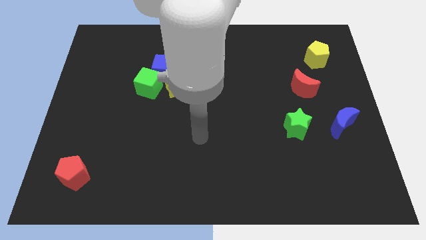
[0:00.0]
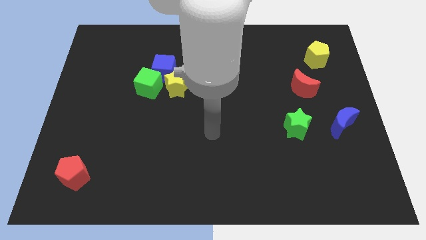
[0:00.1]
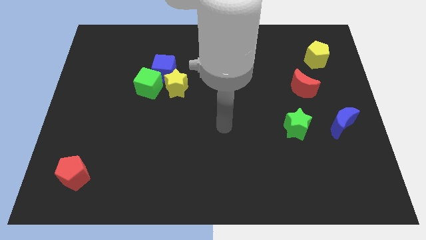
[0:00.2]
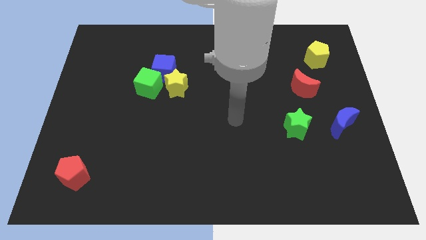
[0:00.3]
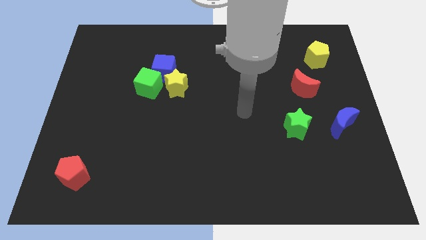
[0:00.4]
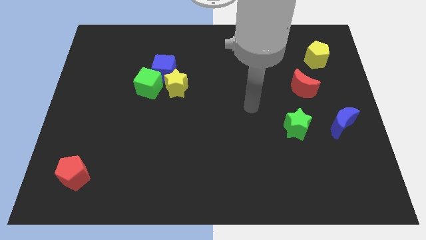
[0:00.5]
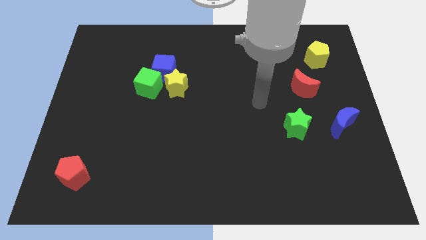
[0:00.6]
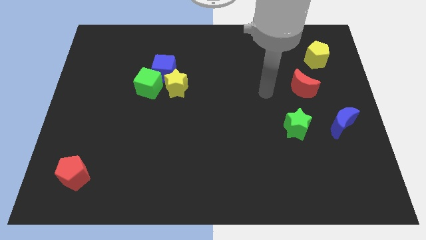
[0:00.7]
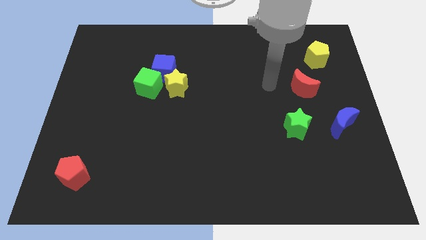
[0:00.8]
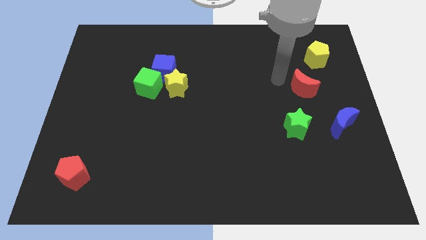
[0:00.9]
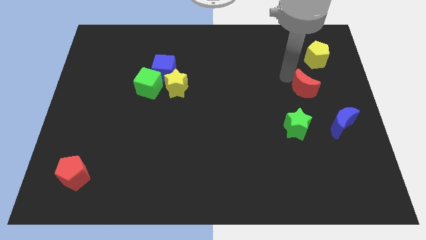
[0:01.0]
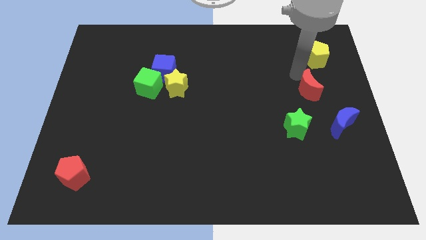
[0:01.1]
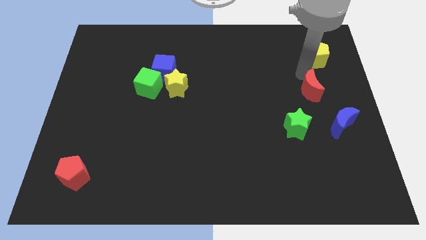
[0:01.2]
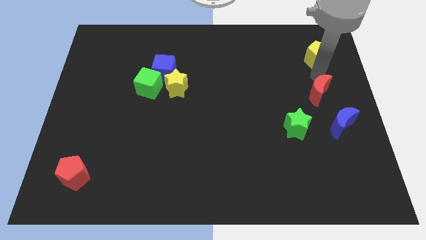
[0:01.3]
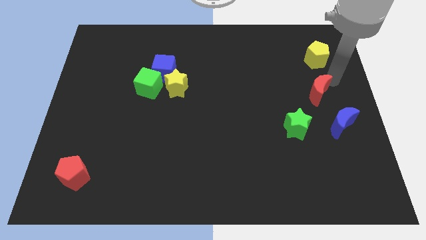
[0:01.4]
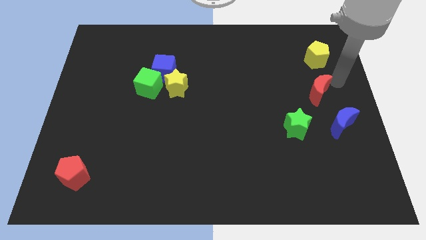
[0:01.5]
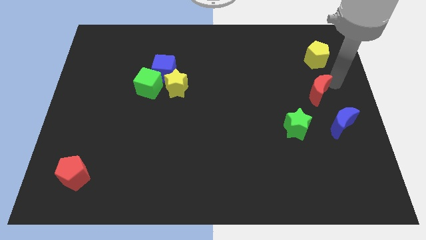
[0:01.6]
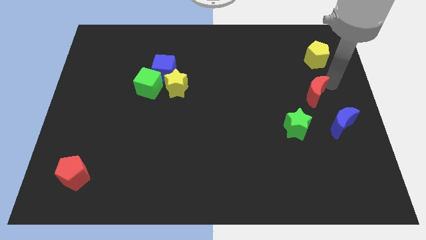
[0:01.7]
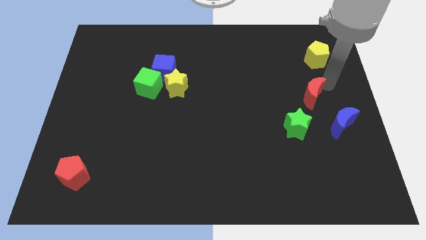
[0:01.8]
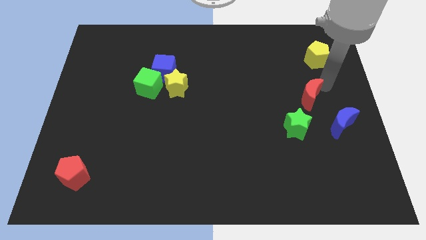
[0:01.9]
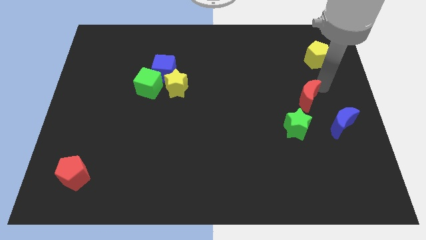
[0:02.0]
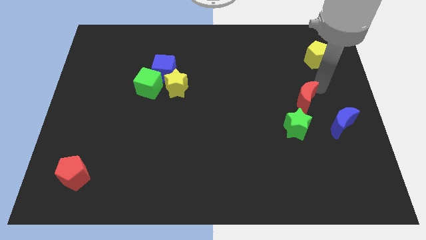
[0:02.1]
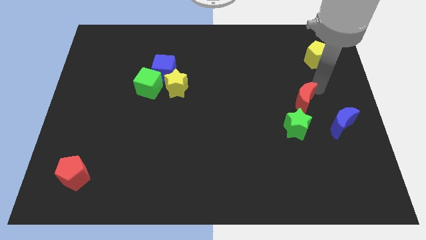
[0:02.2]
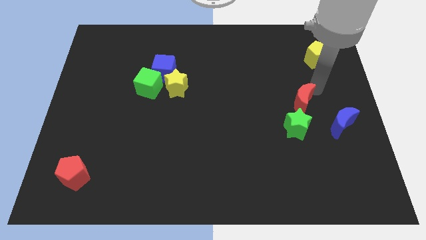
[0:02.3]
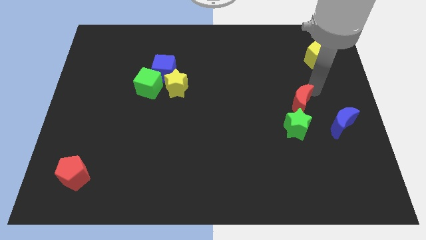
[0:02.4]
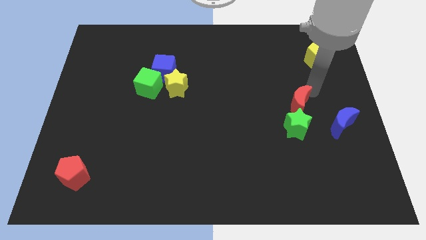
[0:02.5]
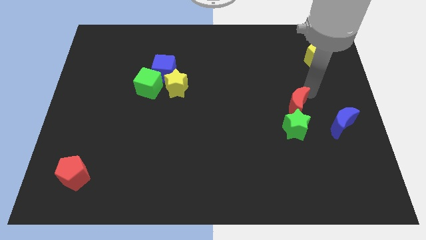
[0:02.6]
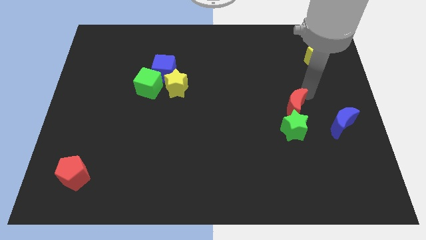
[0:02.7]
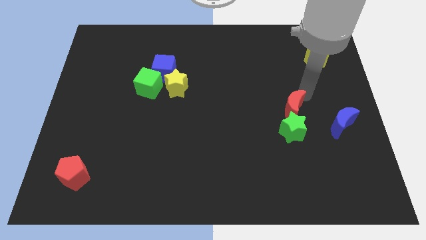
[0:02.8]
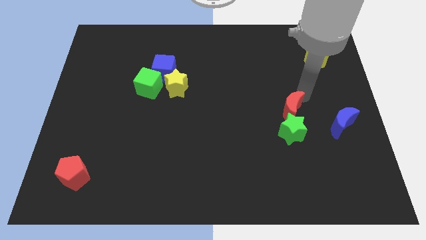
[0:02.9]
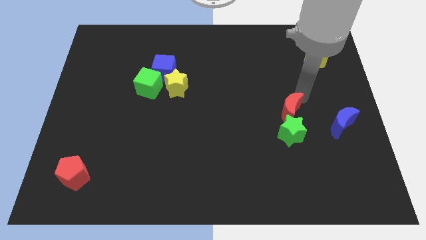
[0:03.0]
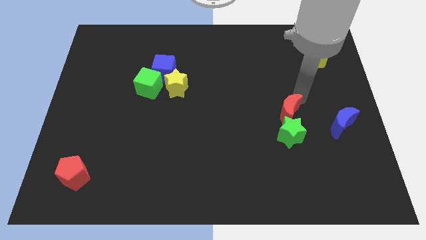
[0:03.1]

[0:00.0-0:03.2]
slide the red moon slightly downwards

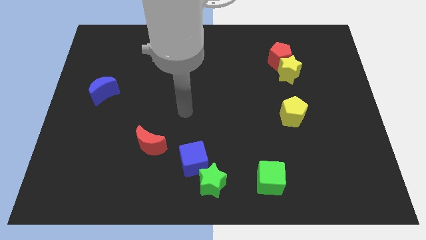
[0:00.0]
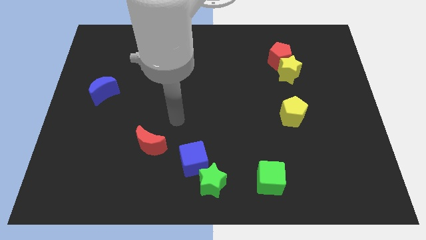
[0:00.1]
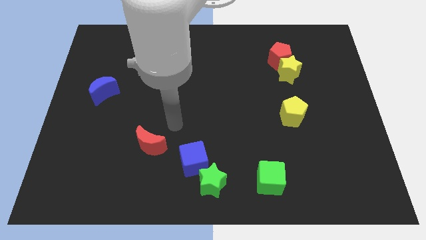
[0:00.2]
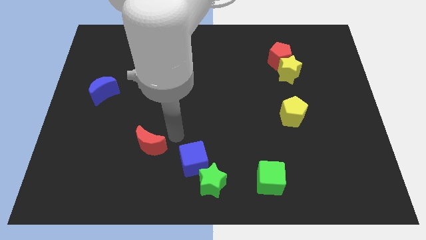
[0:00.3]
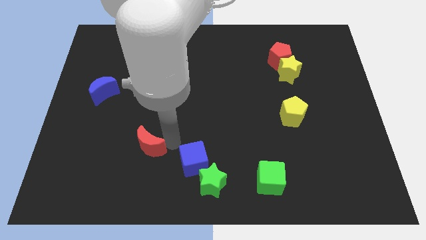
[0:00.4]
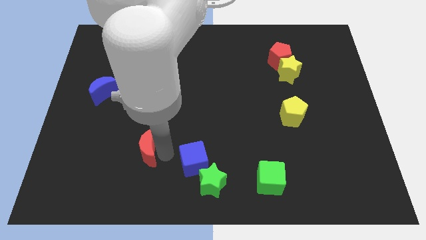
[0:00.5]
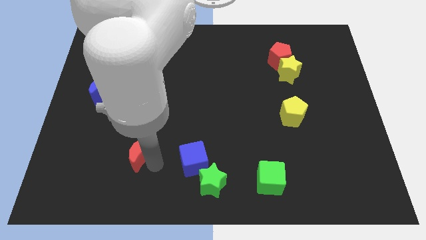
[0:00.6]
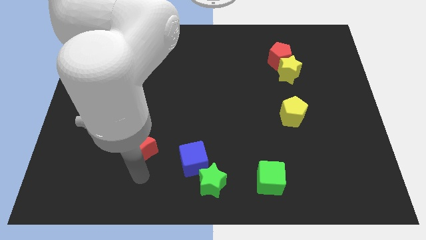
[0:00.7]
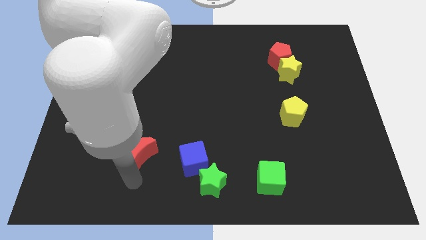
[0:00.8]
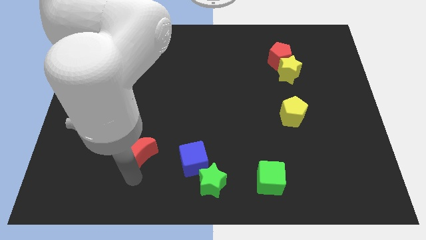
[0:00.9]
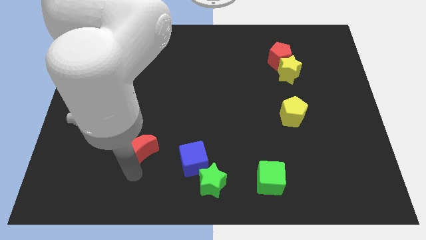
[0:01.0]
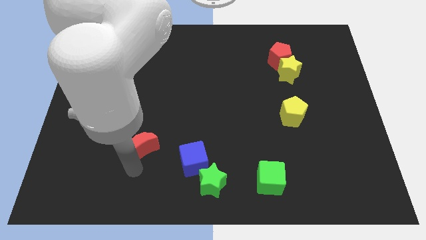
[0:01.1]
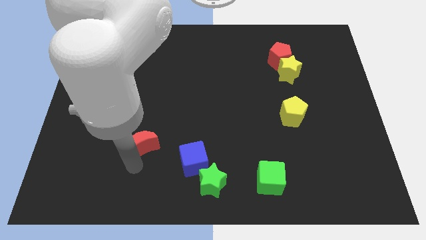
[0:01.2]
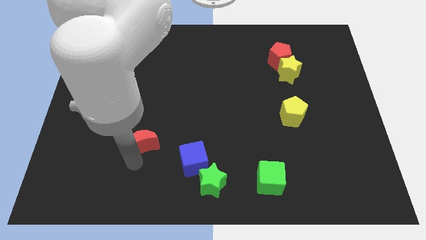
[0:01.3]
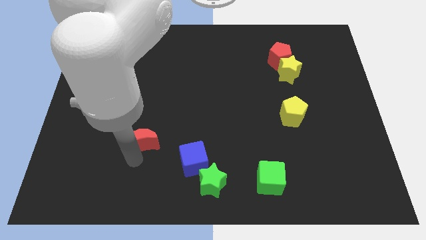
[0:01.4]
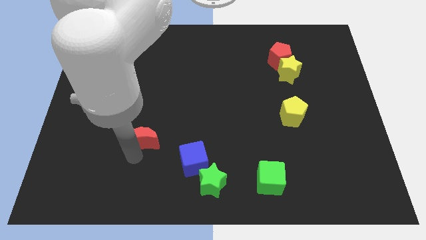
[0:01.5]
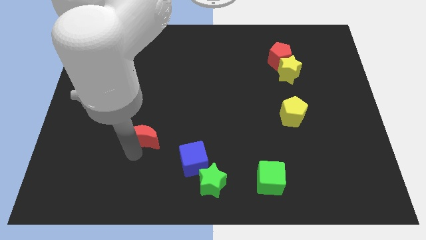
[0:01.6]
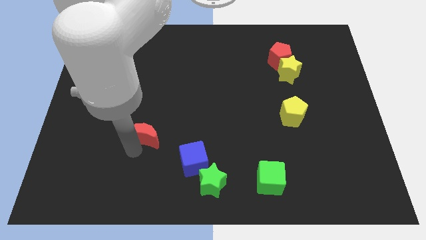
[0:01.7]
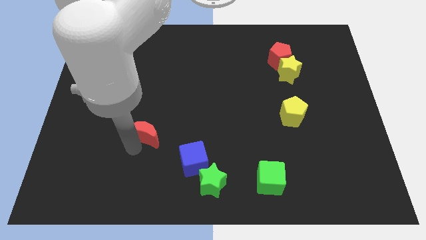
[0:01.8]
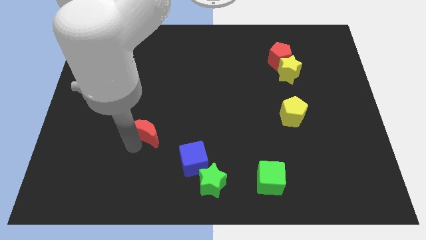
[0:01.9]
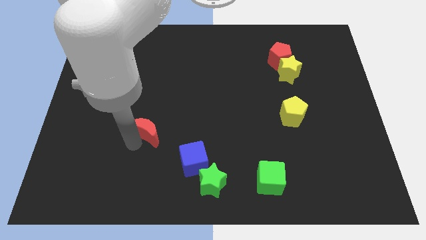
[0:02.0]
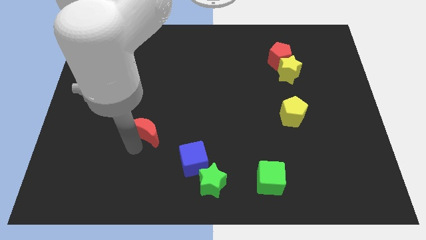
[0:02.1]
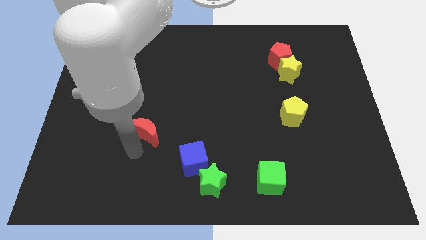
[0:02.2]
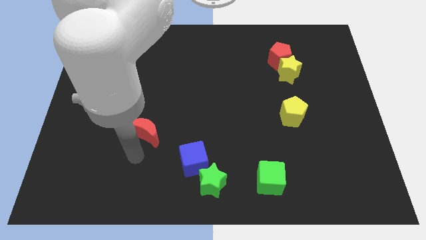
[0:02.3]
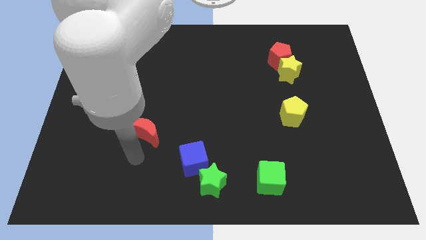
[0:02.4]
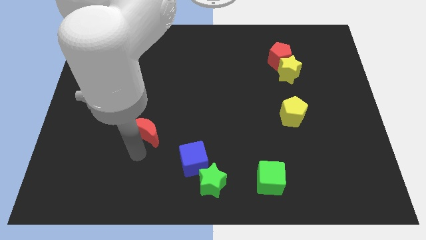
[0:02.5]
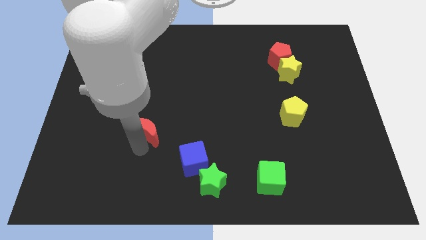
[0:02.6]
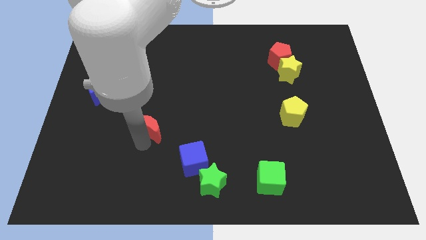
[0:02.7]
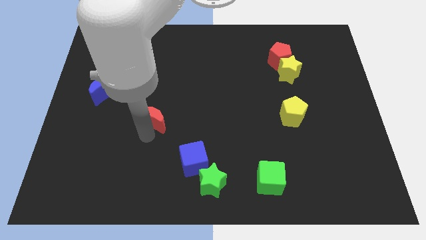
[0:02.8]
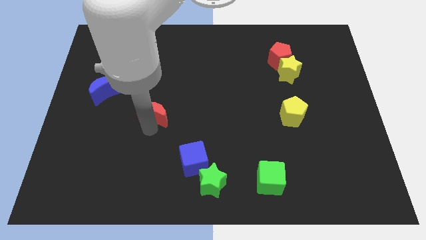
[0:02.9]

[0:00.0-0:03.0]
slightly move the red moon upwards

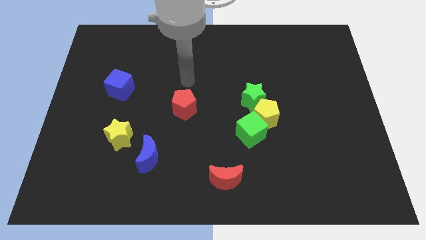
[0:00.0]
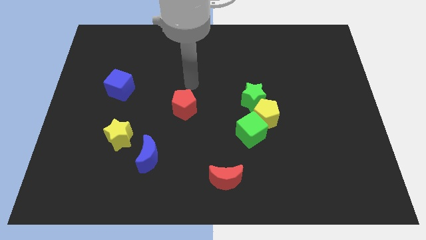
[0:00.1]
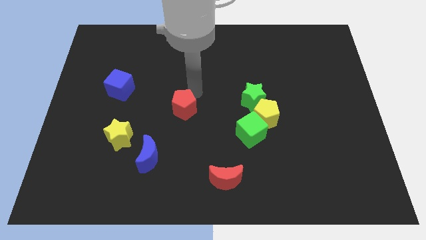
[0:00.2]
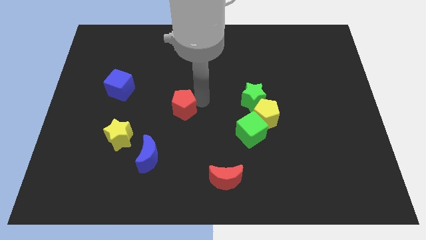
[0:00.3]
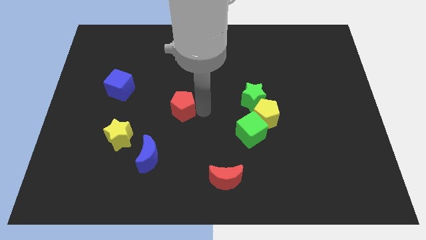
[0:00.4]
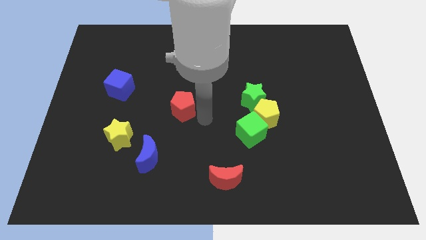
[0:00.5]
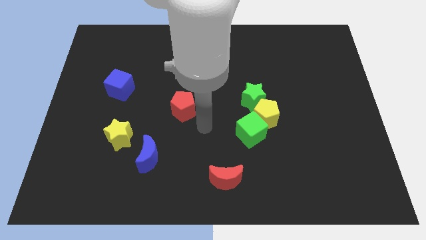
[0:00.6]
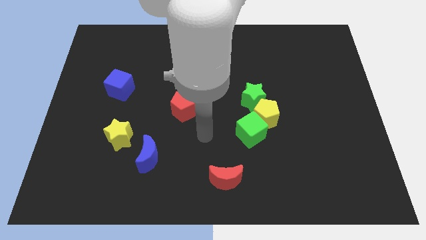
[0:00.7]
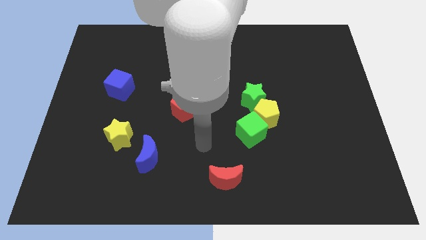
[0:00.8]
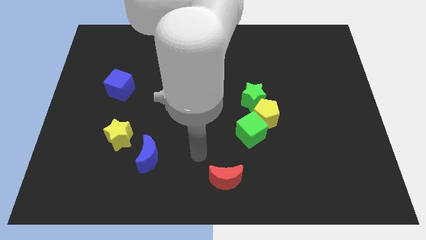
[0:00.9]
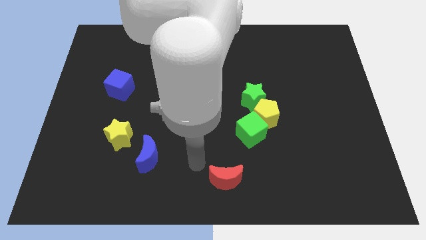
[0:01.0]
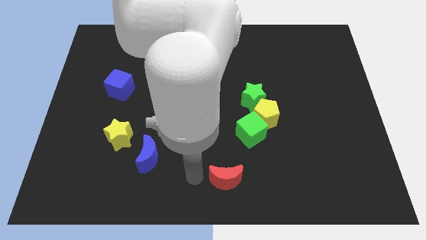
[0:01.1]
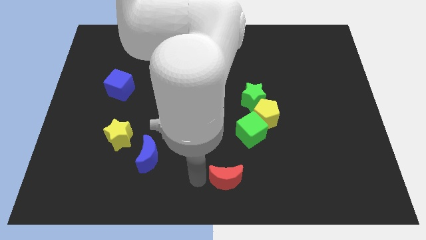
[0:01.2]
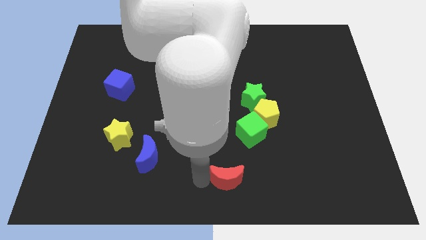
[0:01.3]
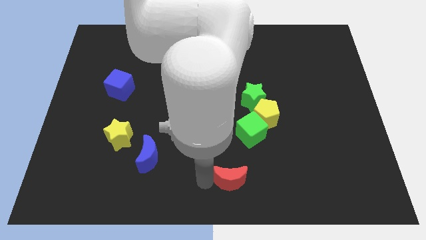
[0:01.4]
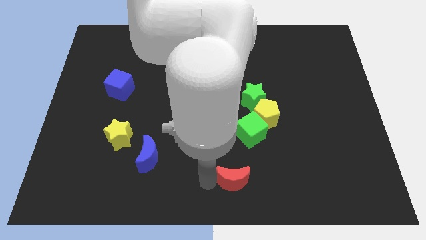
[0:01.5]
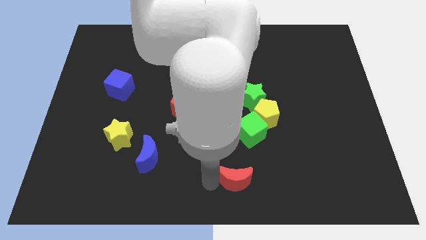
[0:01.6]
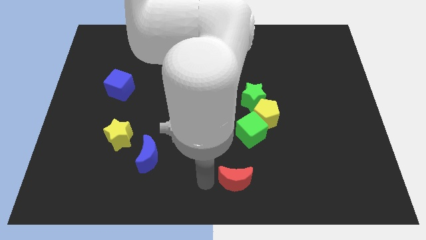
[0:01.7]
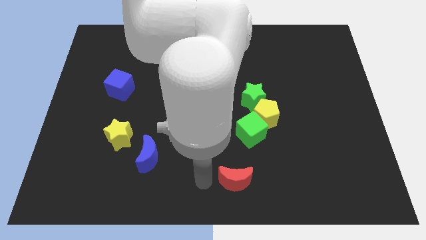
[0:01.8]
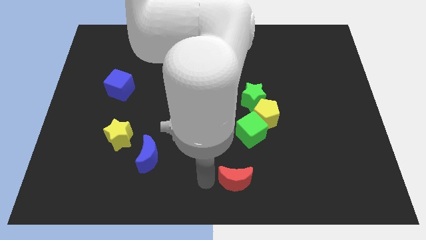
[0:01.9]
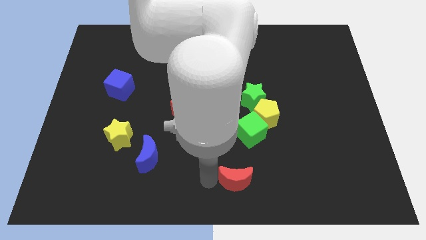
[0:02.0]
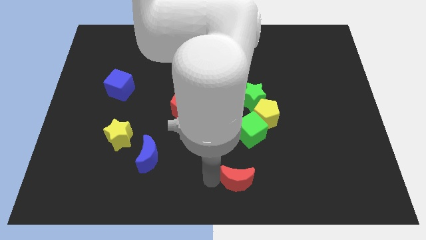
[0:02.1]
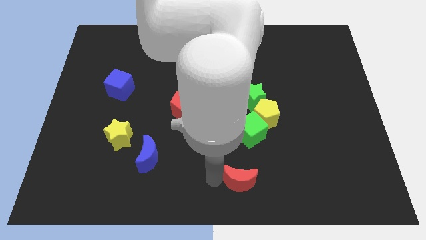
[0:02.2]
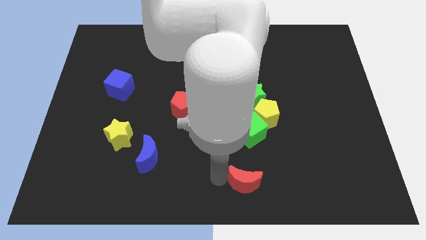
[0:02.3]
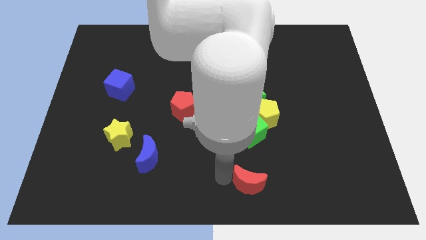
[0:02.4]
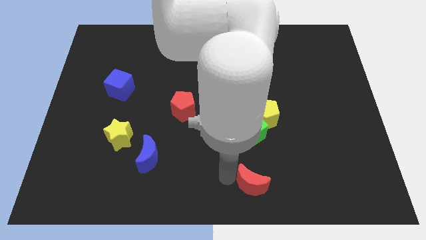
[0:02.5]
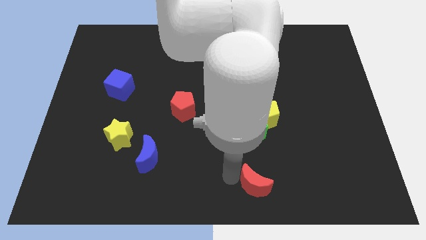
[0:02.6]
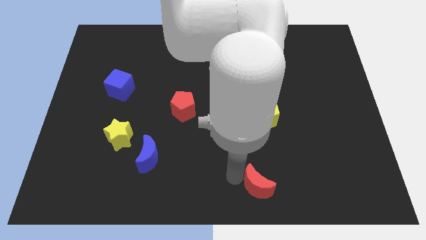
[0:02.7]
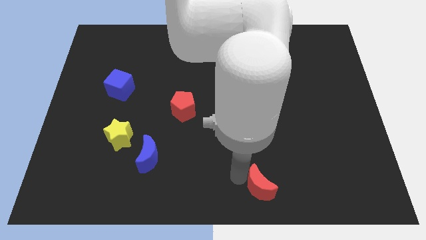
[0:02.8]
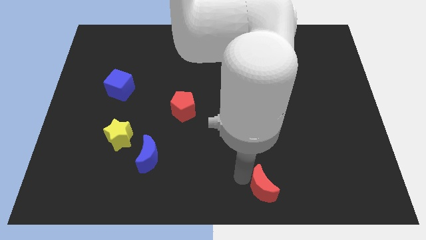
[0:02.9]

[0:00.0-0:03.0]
slightly slide the red moon right
